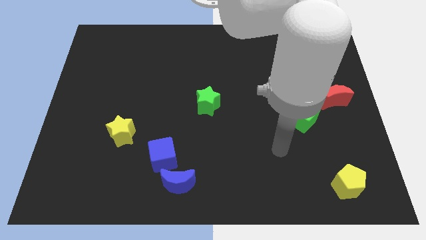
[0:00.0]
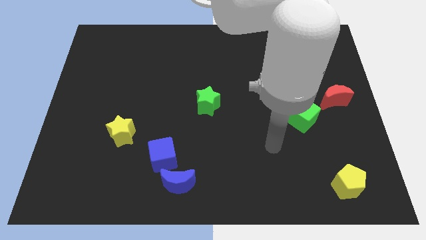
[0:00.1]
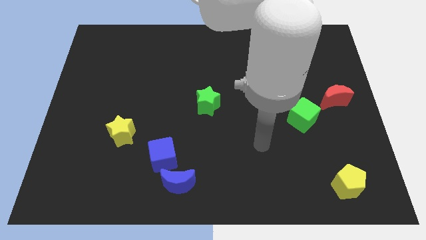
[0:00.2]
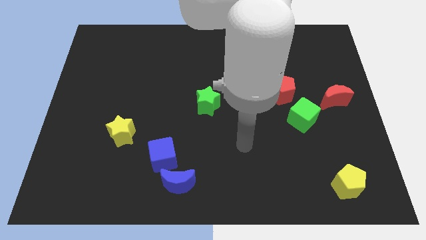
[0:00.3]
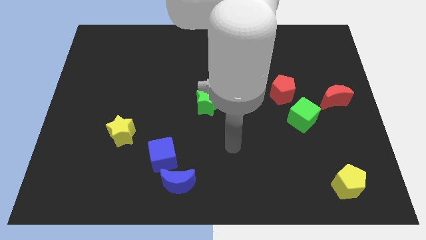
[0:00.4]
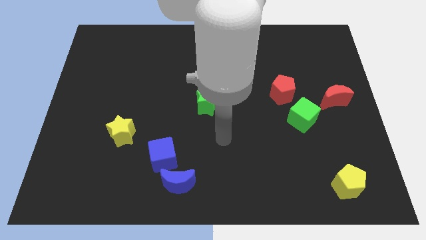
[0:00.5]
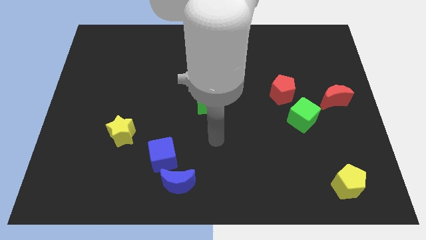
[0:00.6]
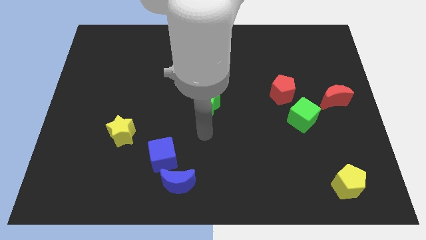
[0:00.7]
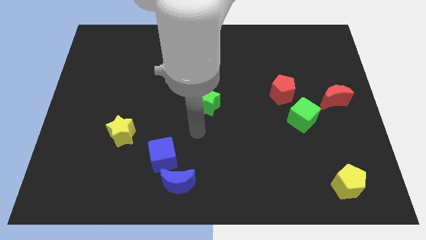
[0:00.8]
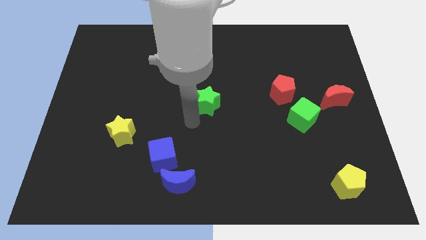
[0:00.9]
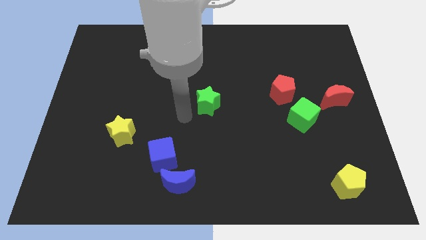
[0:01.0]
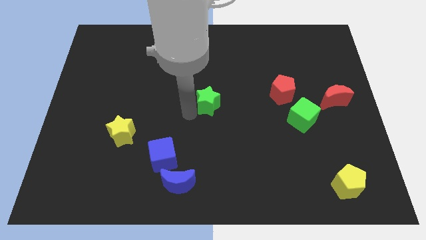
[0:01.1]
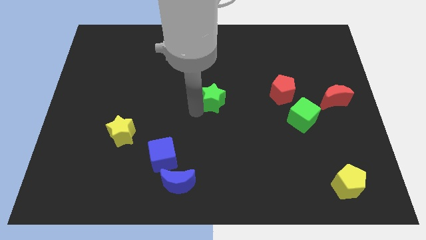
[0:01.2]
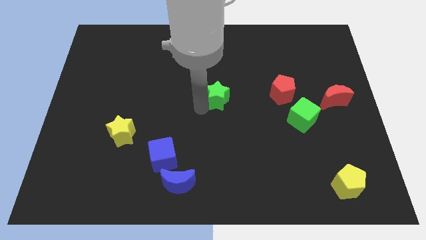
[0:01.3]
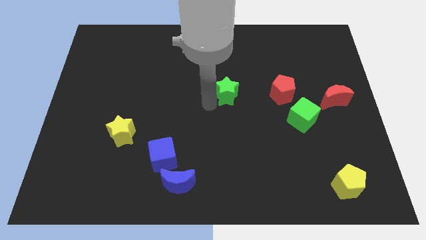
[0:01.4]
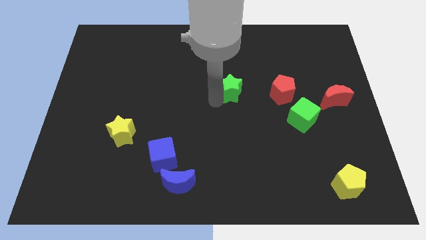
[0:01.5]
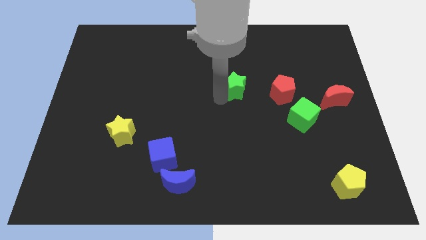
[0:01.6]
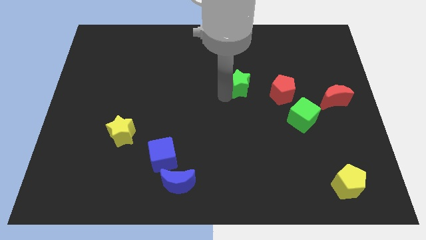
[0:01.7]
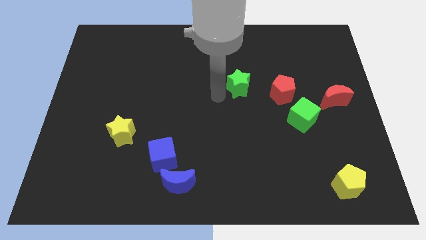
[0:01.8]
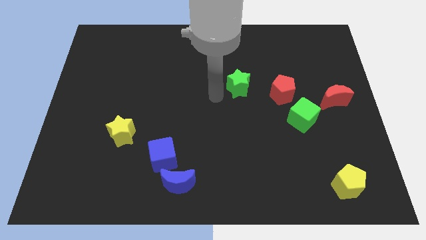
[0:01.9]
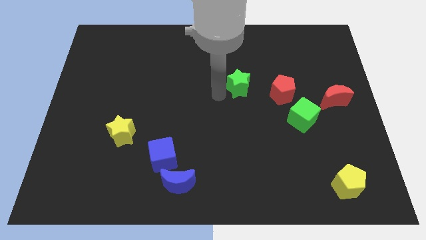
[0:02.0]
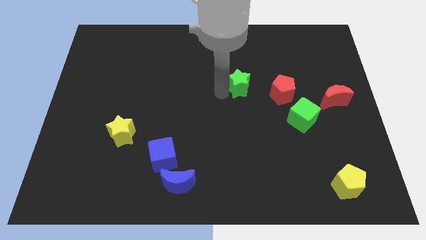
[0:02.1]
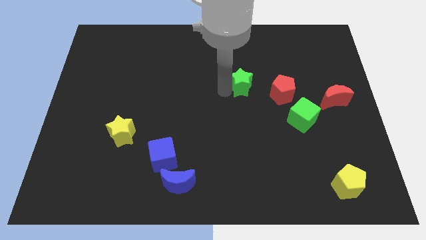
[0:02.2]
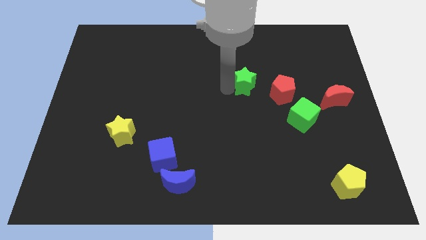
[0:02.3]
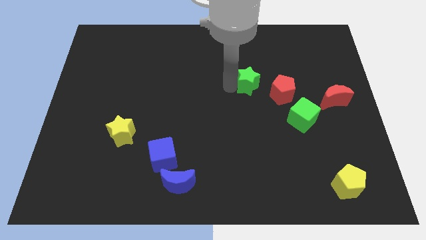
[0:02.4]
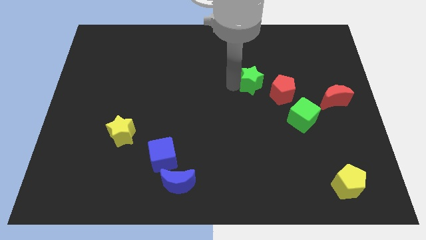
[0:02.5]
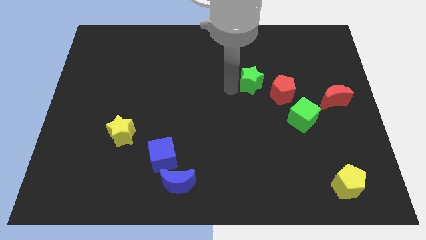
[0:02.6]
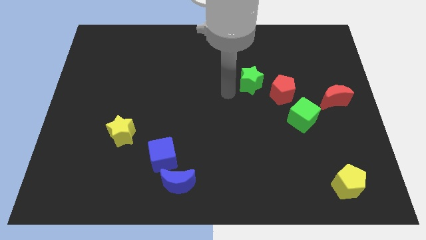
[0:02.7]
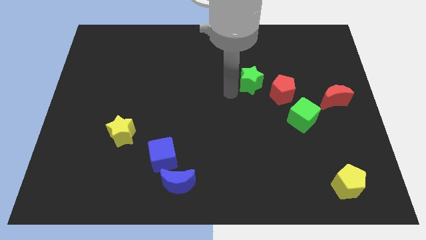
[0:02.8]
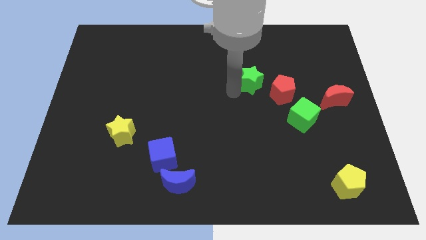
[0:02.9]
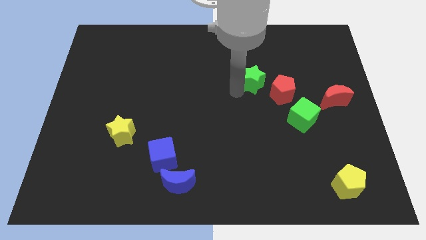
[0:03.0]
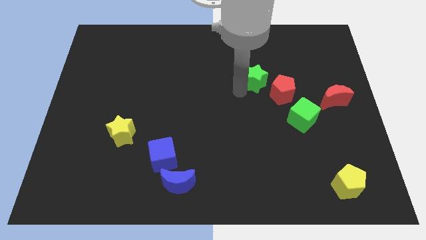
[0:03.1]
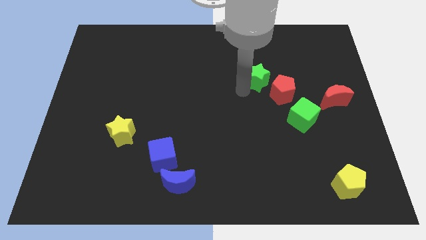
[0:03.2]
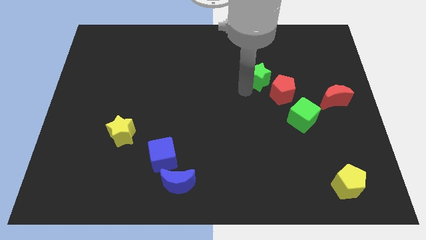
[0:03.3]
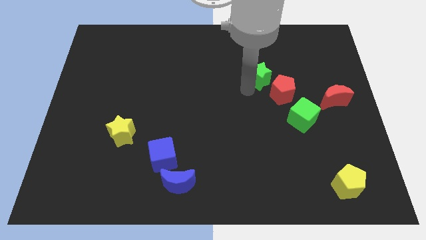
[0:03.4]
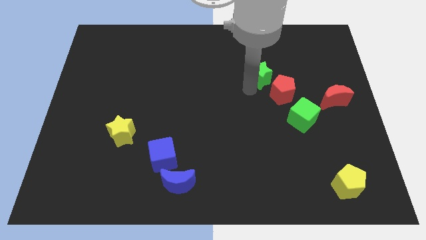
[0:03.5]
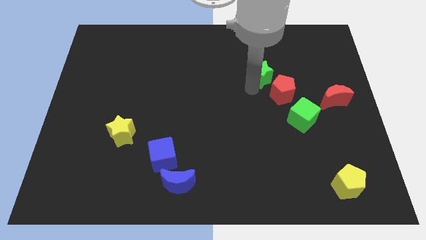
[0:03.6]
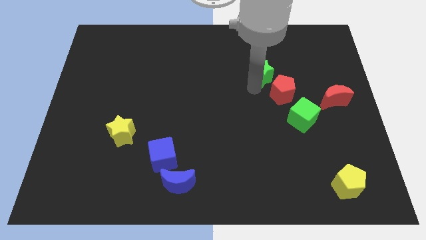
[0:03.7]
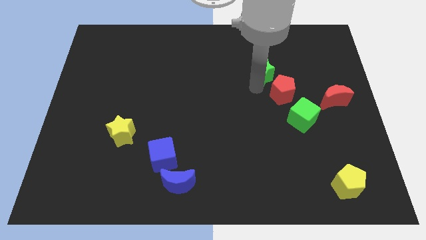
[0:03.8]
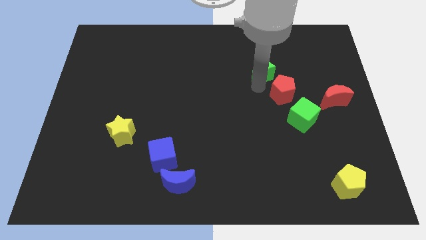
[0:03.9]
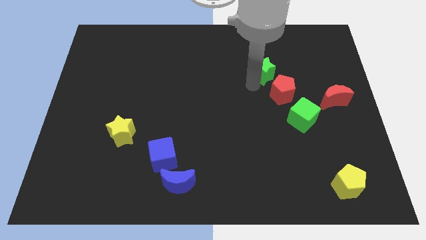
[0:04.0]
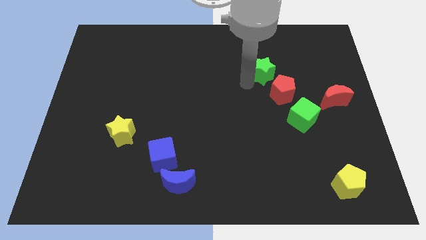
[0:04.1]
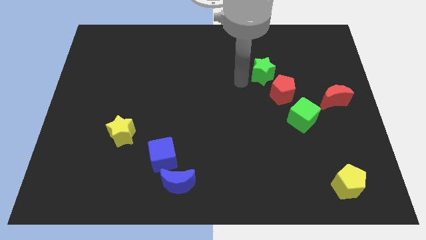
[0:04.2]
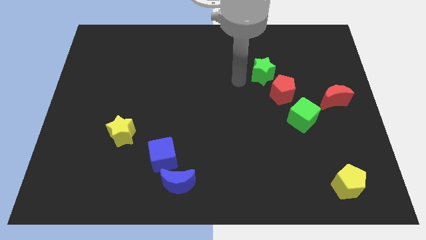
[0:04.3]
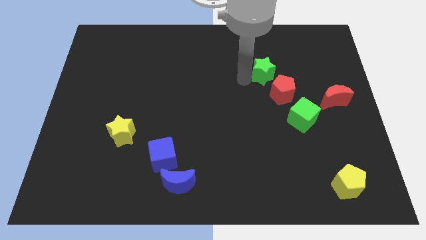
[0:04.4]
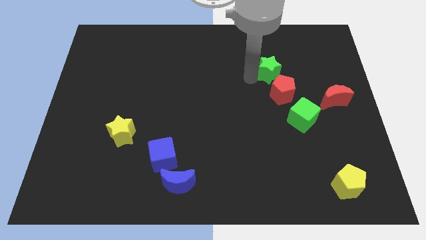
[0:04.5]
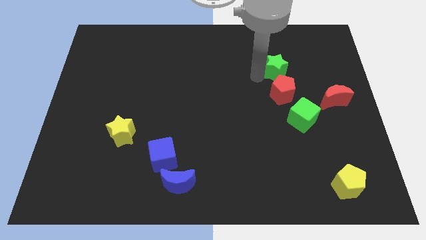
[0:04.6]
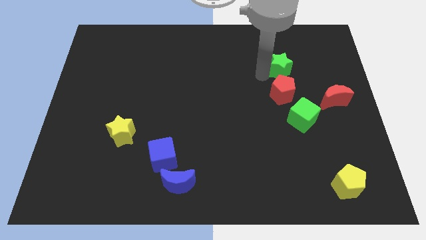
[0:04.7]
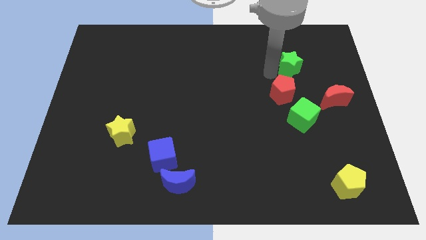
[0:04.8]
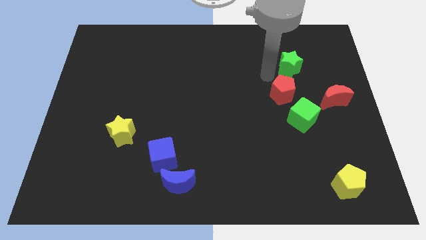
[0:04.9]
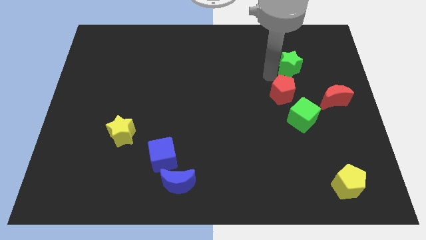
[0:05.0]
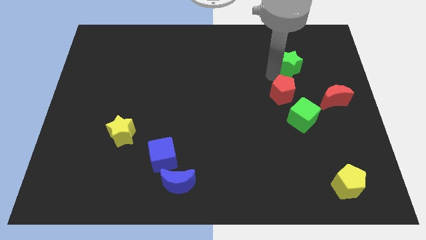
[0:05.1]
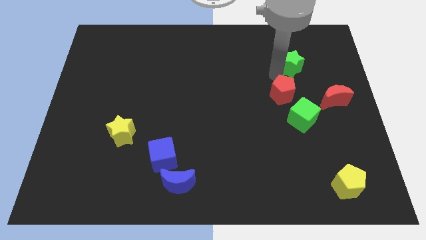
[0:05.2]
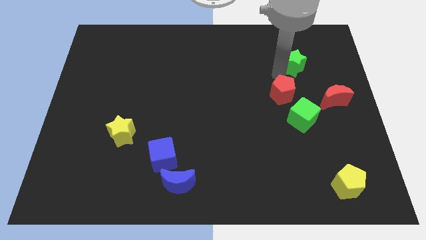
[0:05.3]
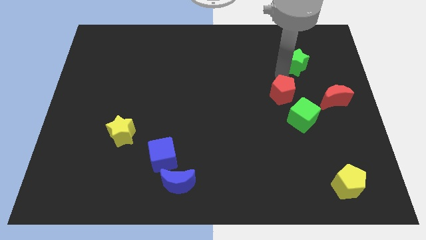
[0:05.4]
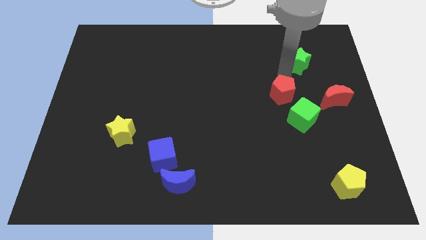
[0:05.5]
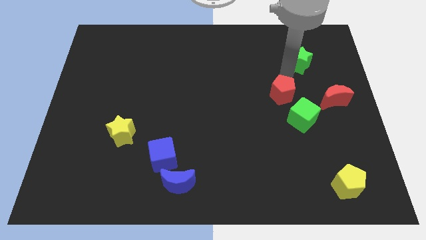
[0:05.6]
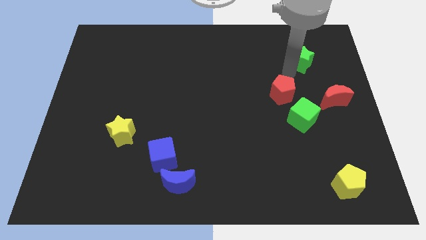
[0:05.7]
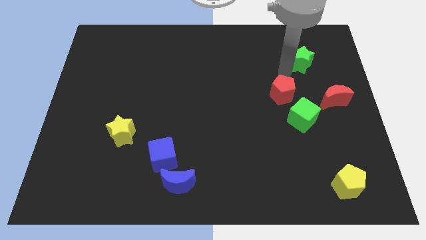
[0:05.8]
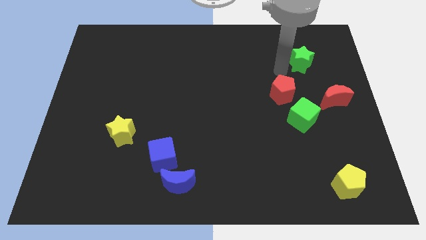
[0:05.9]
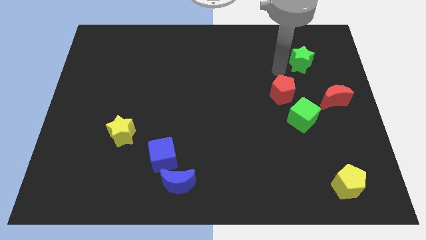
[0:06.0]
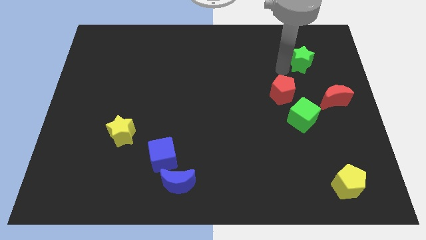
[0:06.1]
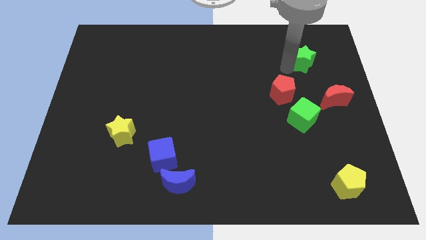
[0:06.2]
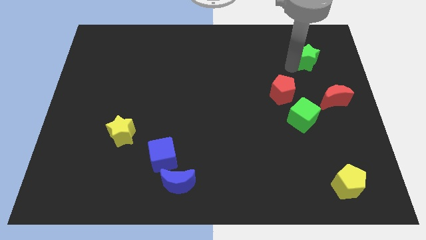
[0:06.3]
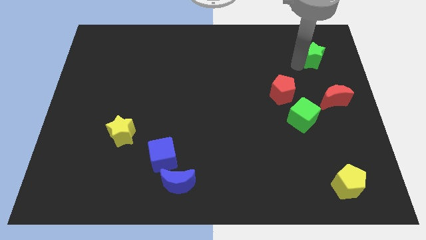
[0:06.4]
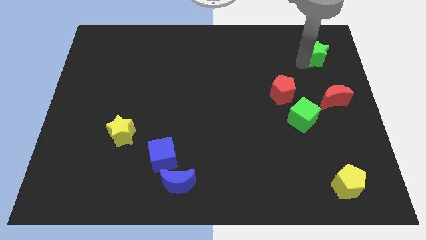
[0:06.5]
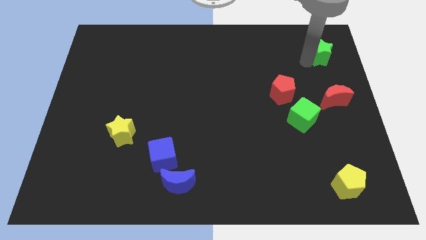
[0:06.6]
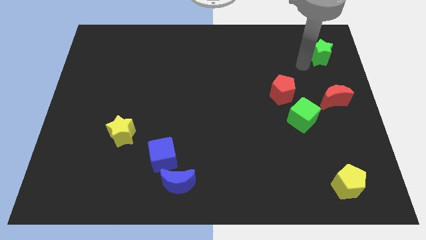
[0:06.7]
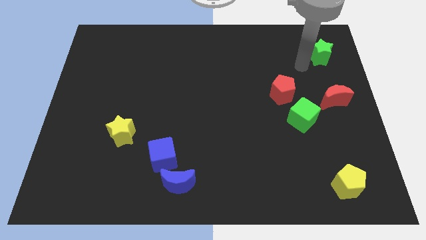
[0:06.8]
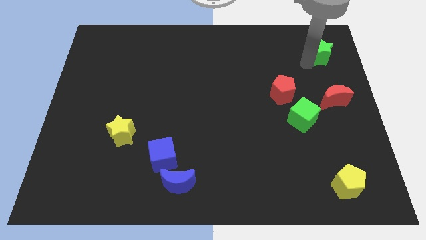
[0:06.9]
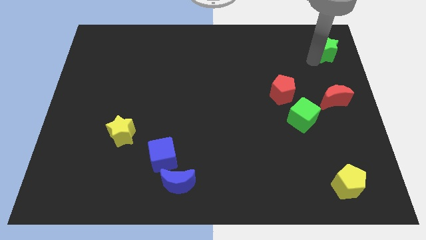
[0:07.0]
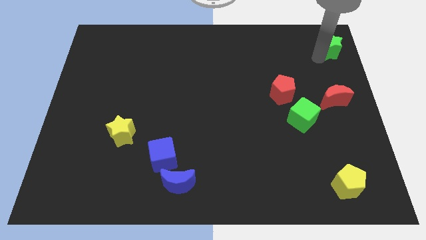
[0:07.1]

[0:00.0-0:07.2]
move the green star to the top right
